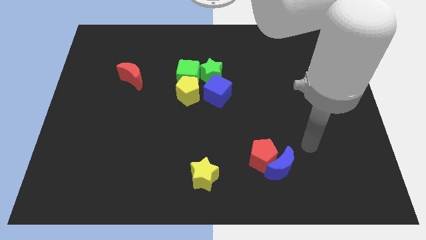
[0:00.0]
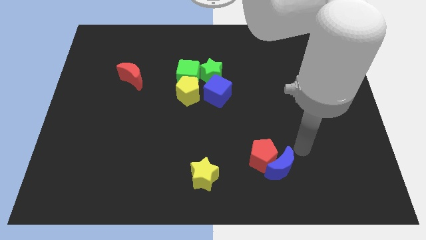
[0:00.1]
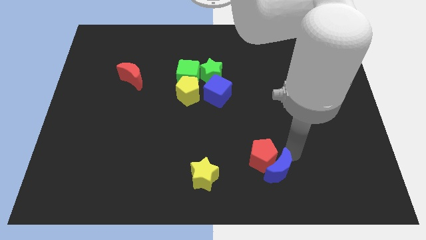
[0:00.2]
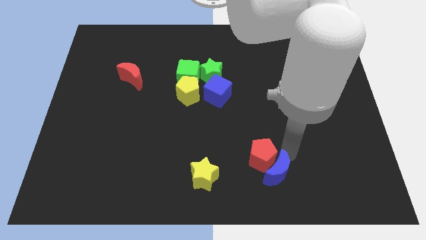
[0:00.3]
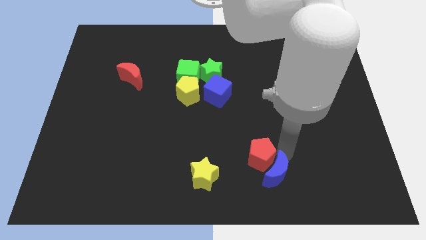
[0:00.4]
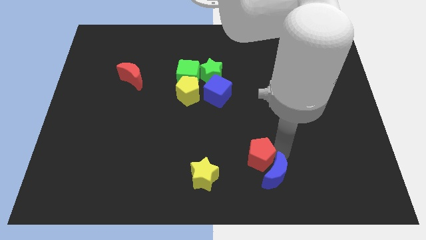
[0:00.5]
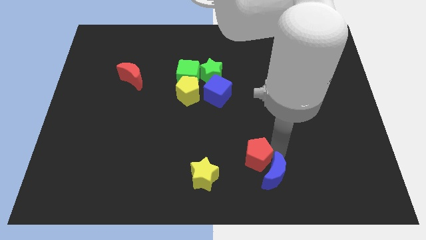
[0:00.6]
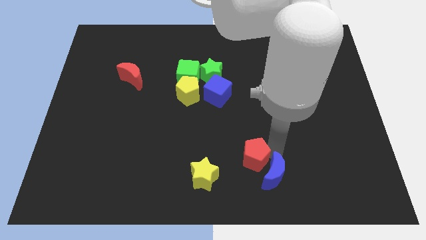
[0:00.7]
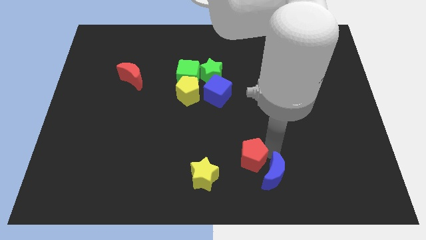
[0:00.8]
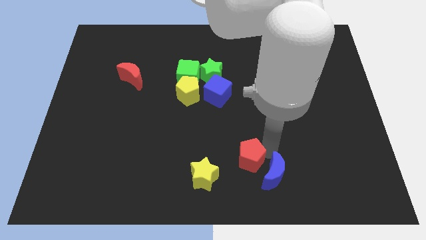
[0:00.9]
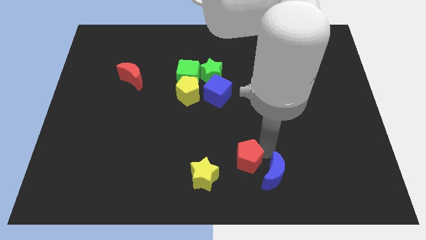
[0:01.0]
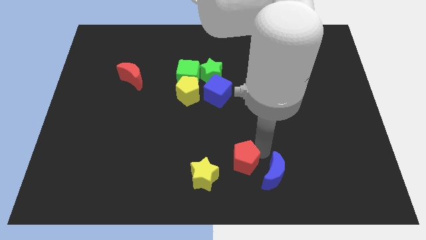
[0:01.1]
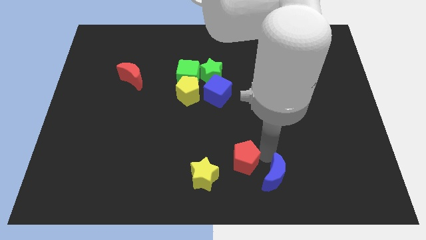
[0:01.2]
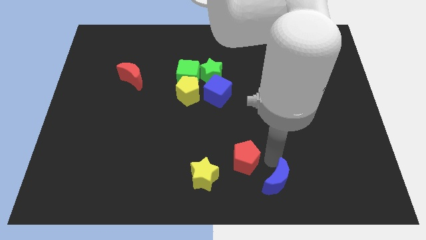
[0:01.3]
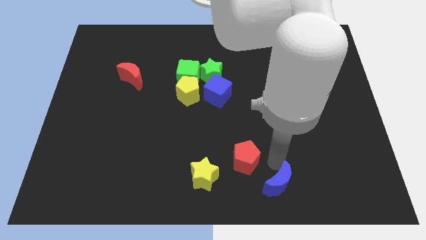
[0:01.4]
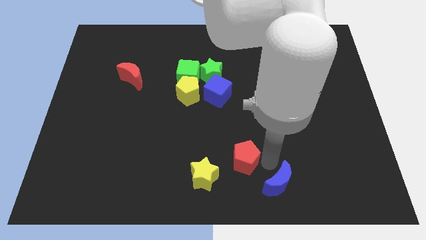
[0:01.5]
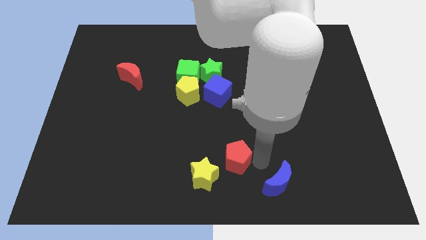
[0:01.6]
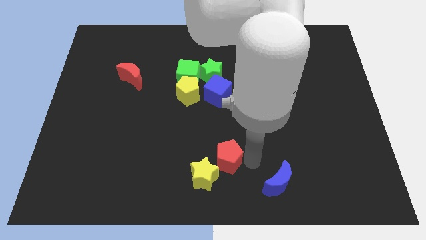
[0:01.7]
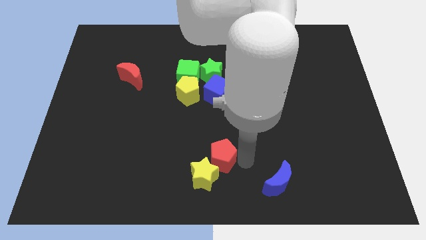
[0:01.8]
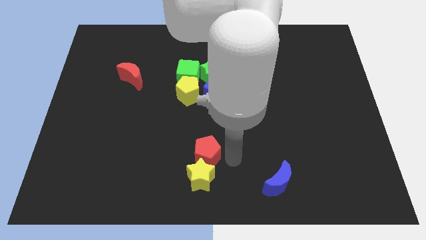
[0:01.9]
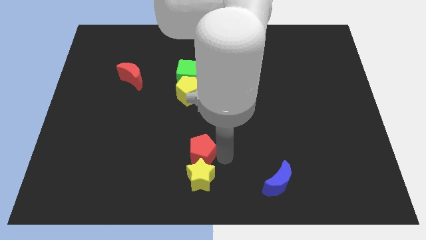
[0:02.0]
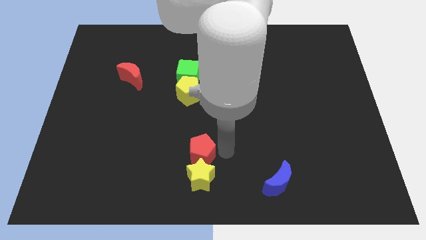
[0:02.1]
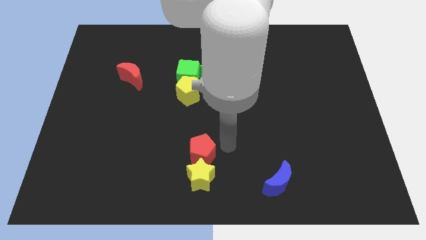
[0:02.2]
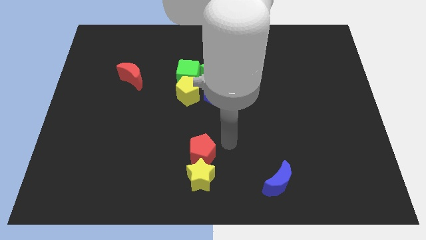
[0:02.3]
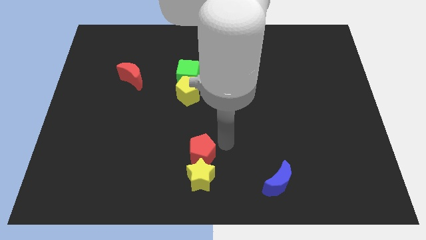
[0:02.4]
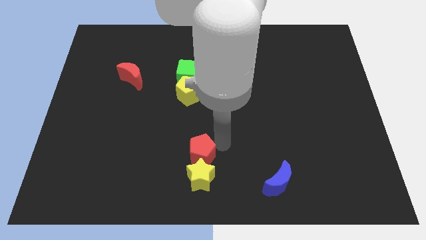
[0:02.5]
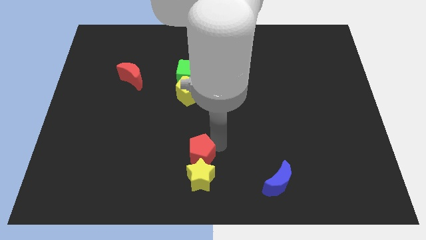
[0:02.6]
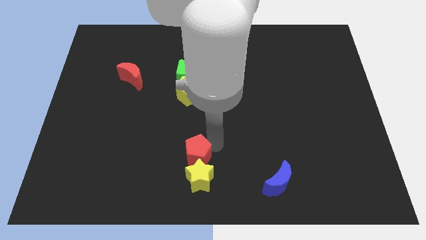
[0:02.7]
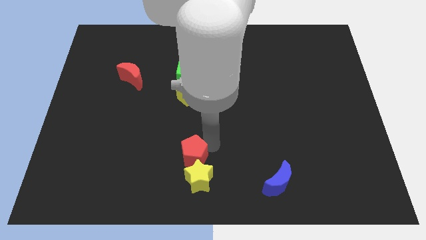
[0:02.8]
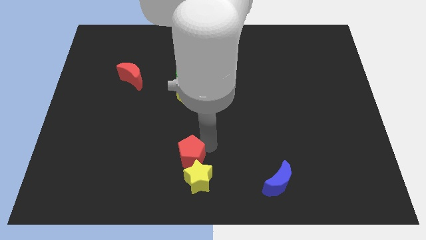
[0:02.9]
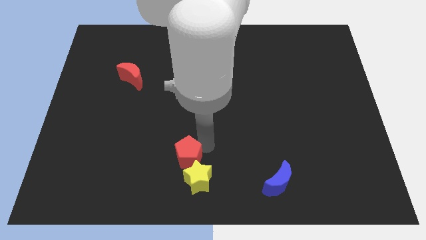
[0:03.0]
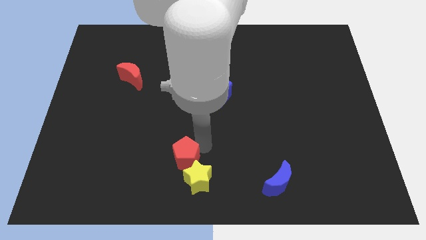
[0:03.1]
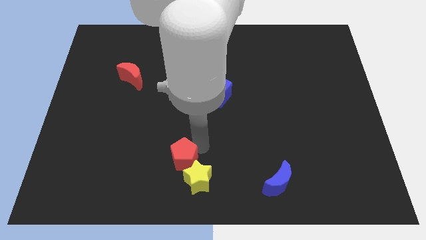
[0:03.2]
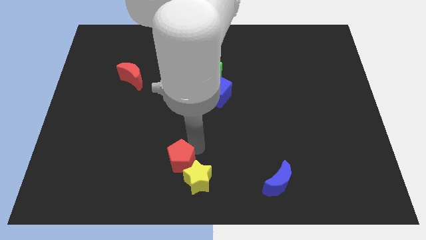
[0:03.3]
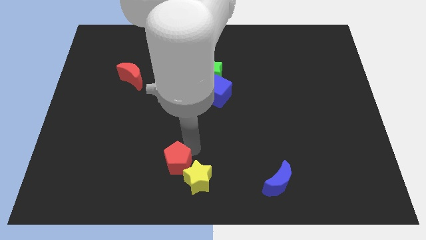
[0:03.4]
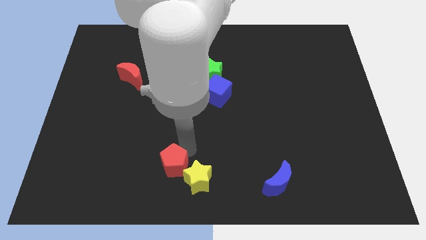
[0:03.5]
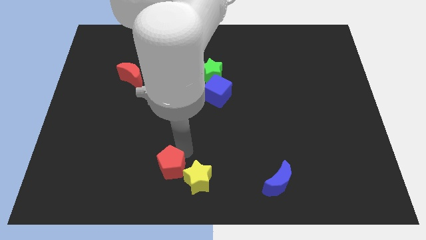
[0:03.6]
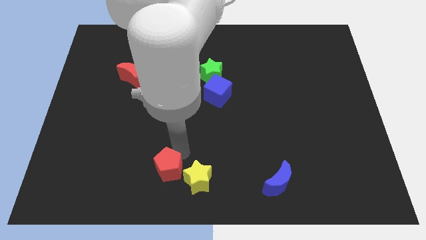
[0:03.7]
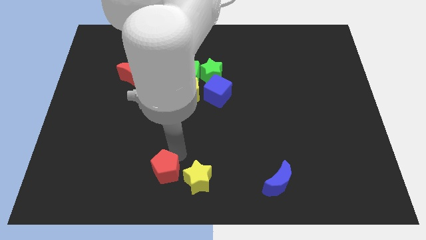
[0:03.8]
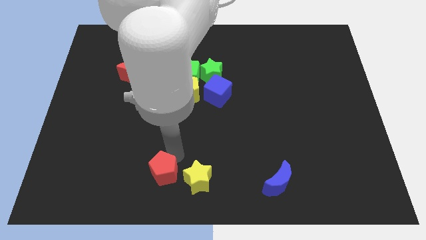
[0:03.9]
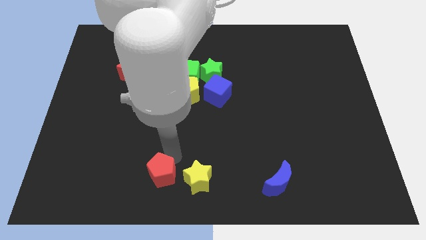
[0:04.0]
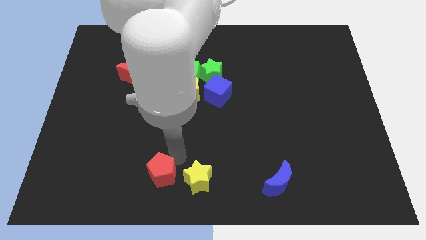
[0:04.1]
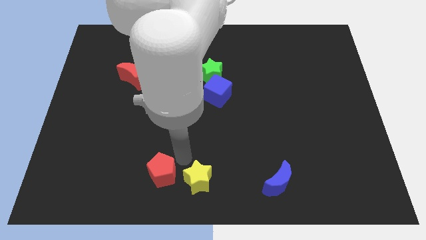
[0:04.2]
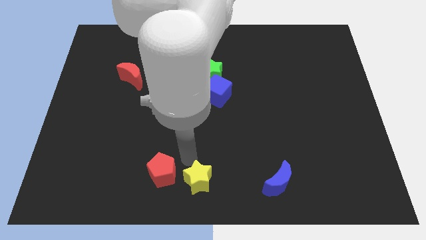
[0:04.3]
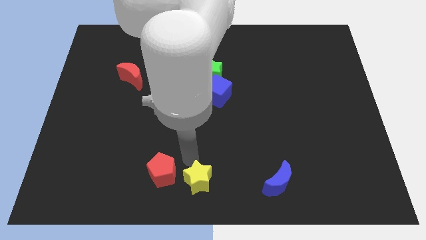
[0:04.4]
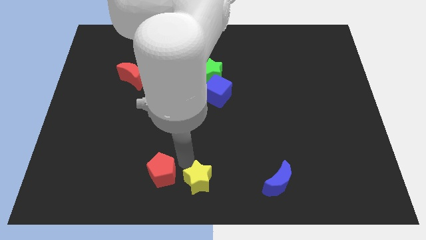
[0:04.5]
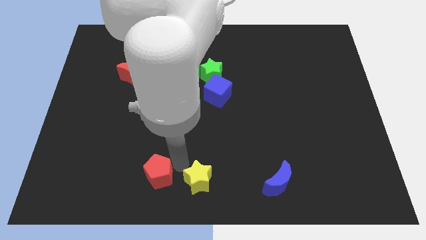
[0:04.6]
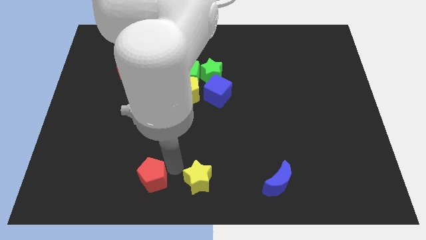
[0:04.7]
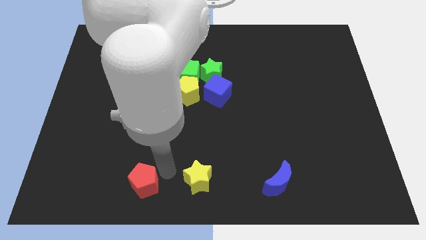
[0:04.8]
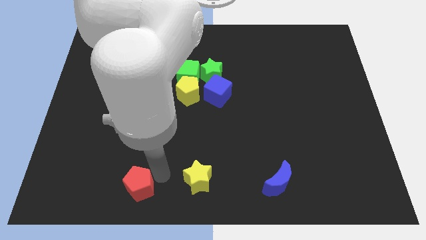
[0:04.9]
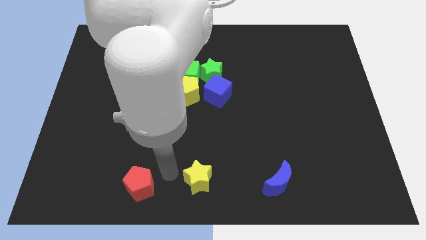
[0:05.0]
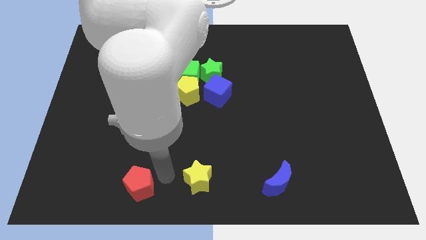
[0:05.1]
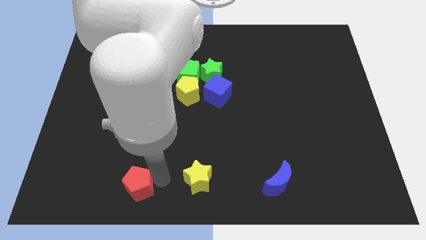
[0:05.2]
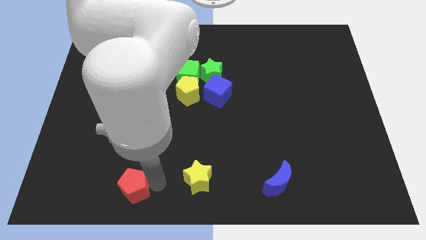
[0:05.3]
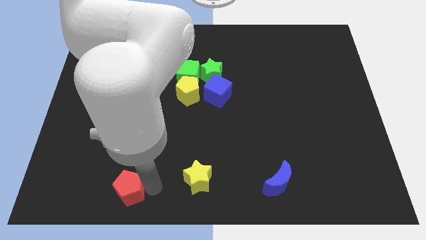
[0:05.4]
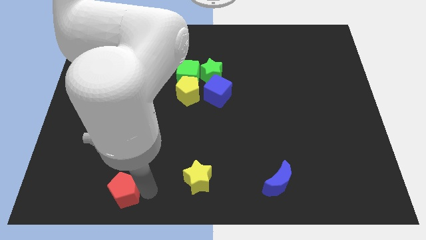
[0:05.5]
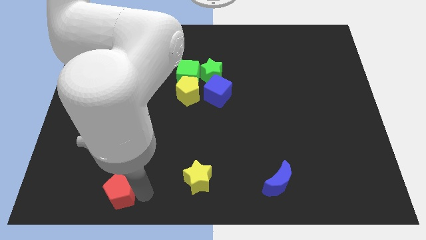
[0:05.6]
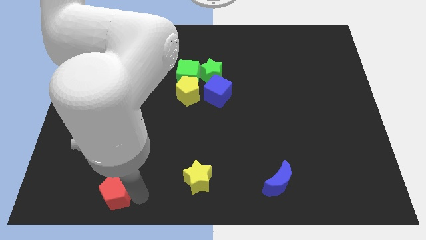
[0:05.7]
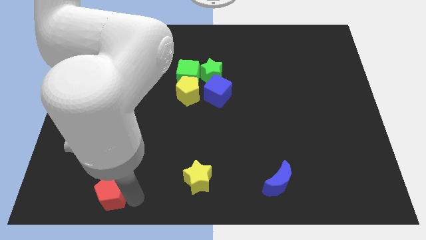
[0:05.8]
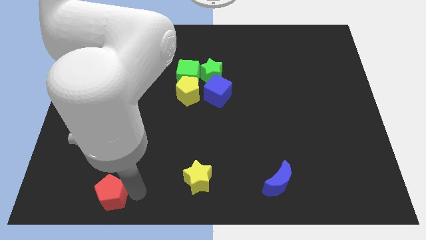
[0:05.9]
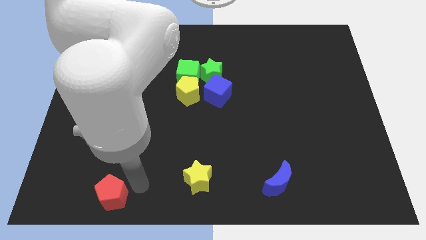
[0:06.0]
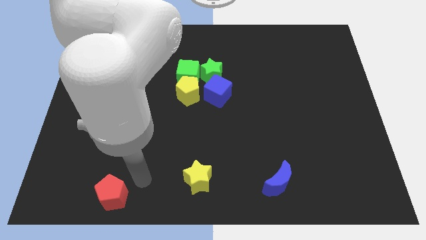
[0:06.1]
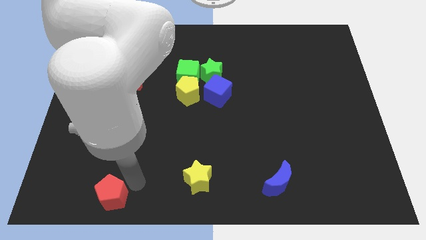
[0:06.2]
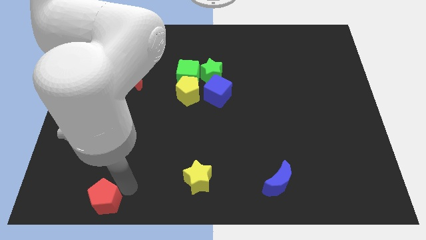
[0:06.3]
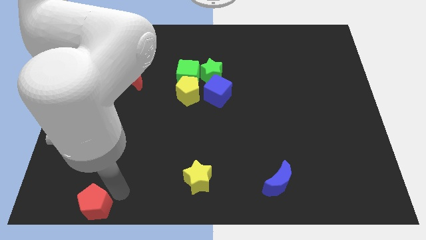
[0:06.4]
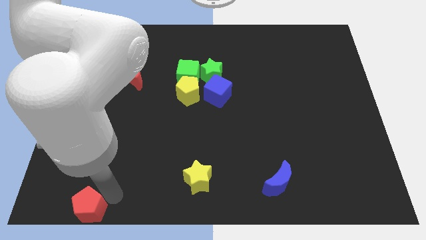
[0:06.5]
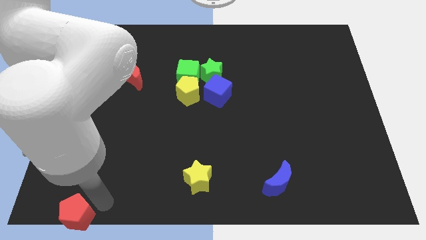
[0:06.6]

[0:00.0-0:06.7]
put the red pentagon to the bottom left
